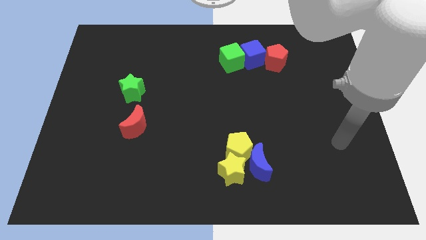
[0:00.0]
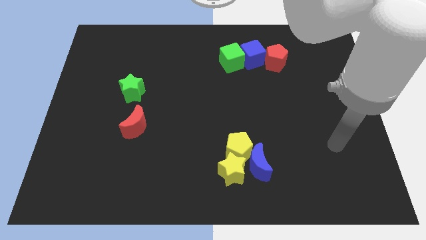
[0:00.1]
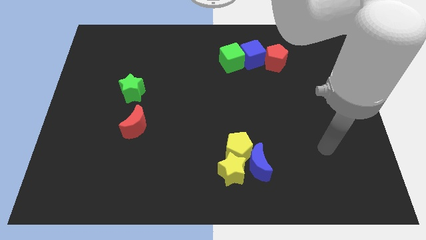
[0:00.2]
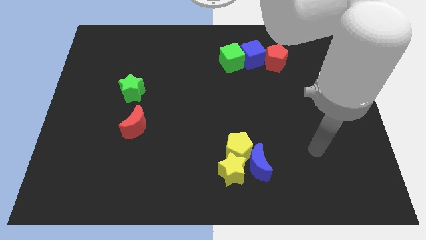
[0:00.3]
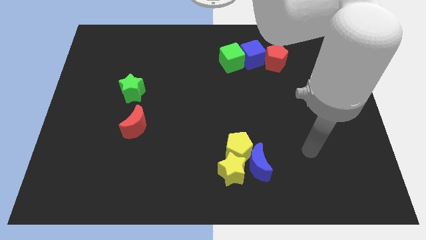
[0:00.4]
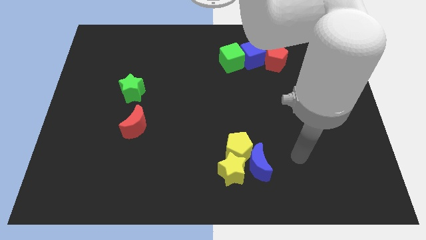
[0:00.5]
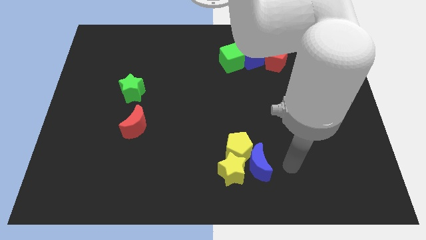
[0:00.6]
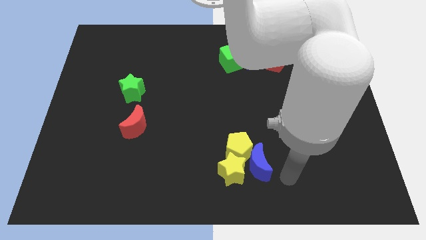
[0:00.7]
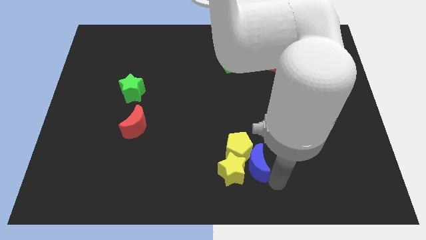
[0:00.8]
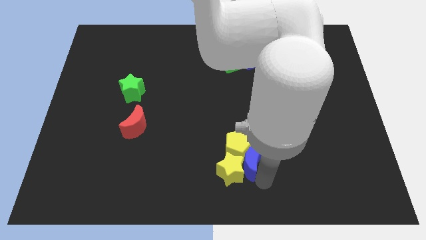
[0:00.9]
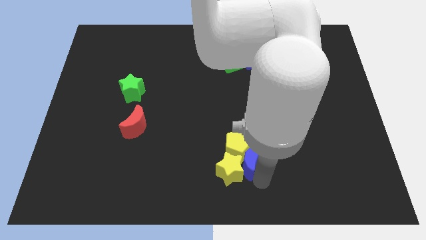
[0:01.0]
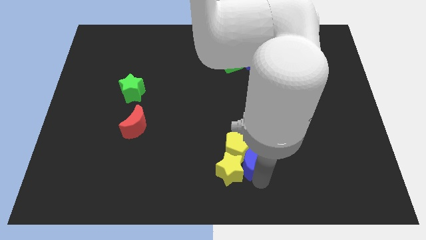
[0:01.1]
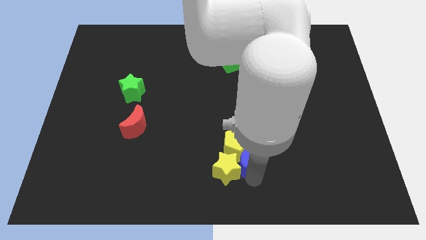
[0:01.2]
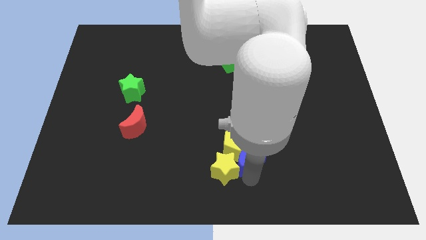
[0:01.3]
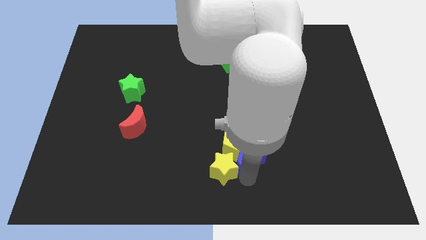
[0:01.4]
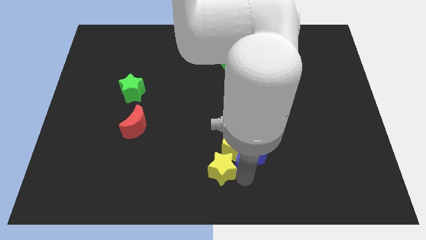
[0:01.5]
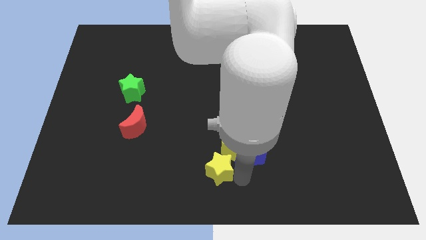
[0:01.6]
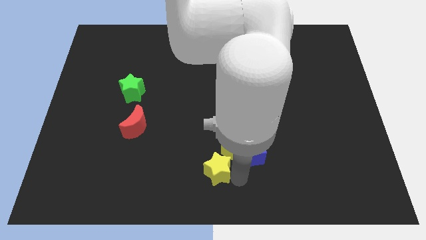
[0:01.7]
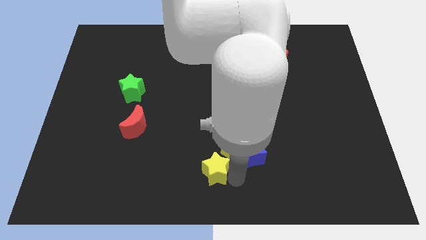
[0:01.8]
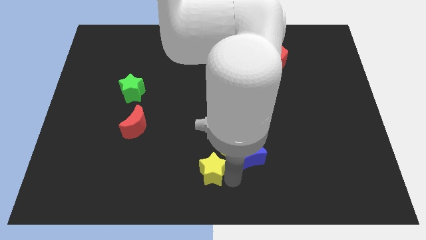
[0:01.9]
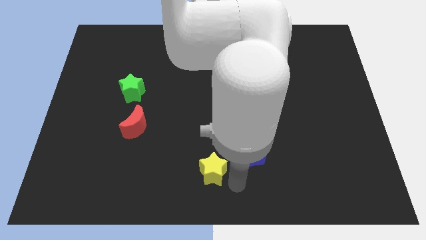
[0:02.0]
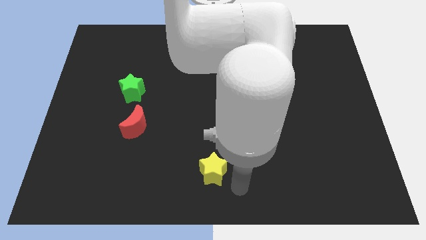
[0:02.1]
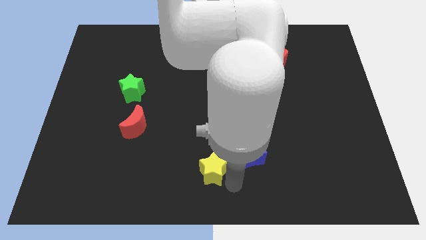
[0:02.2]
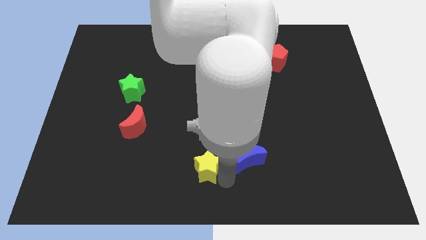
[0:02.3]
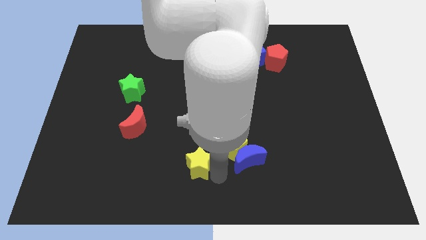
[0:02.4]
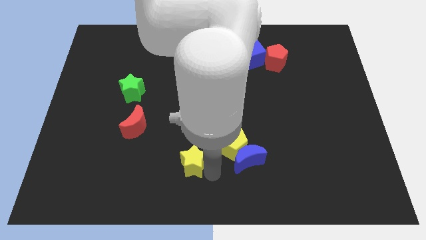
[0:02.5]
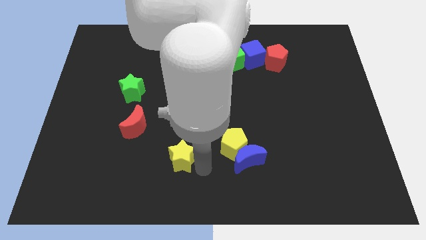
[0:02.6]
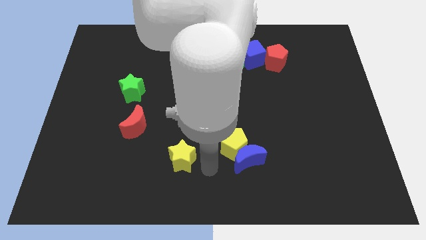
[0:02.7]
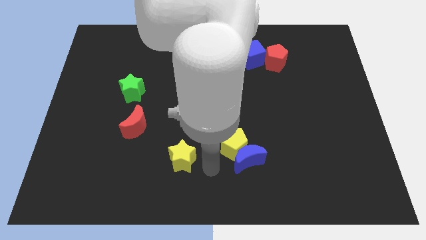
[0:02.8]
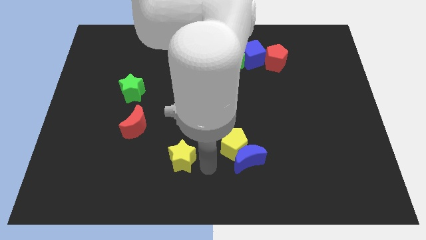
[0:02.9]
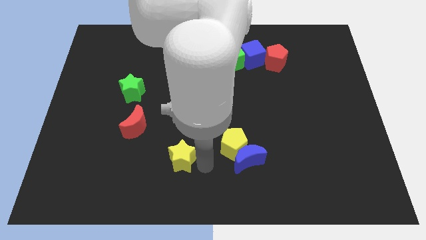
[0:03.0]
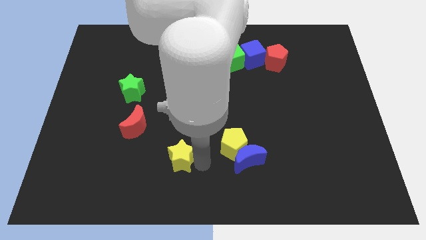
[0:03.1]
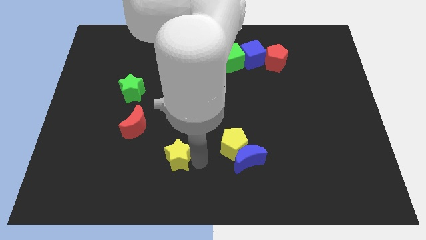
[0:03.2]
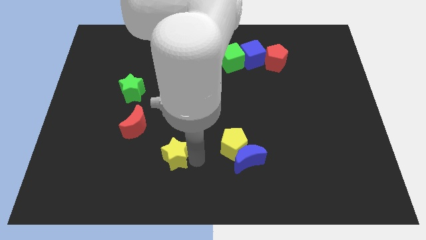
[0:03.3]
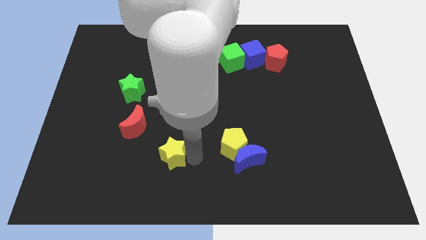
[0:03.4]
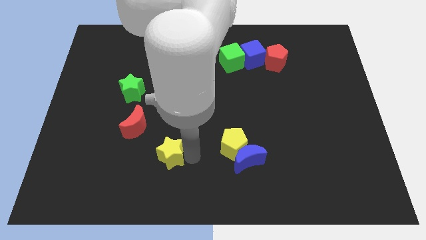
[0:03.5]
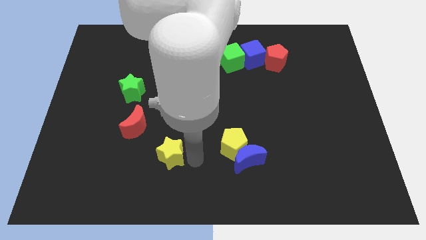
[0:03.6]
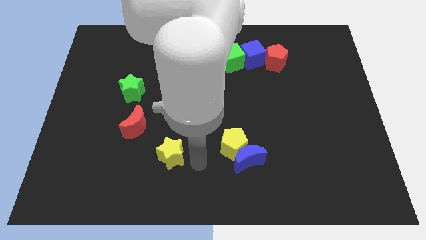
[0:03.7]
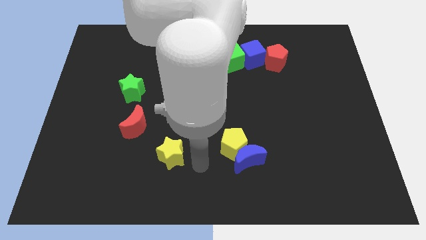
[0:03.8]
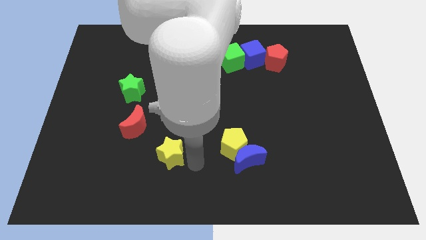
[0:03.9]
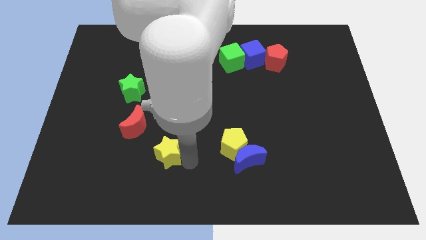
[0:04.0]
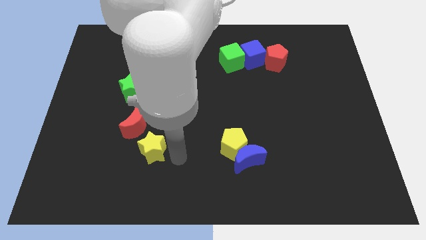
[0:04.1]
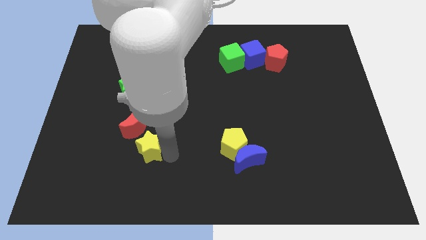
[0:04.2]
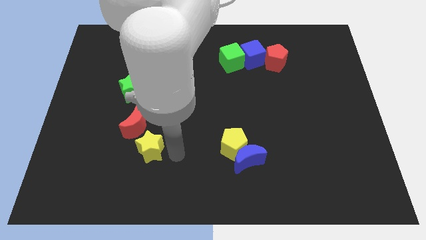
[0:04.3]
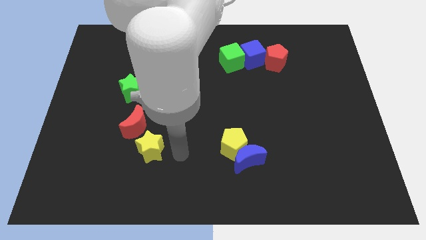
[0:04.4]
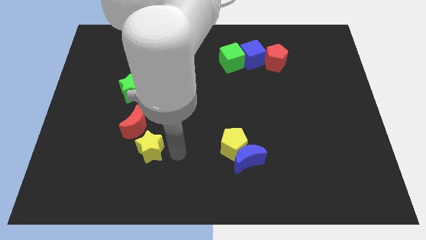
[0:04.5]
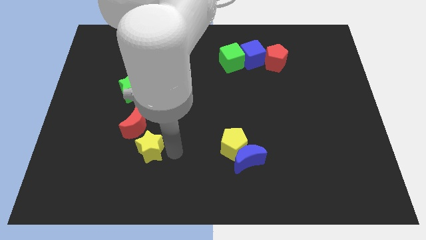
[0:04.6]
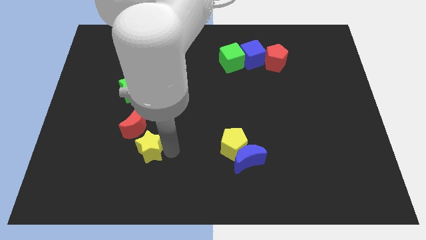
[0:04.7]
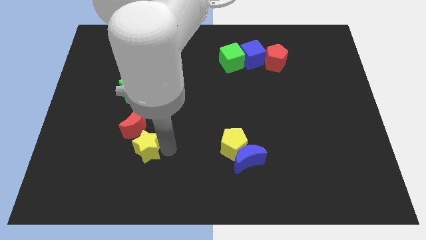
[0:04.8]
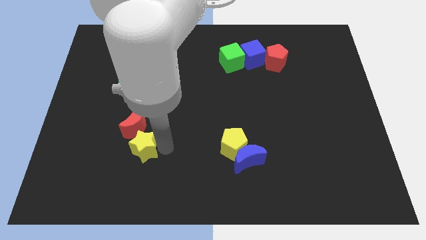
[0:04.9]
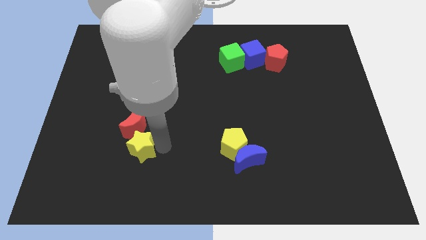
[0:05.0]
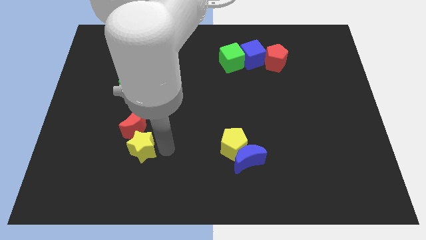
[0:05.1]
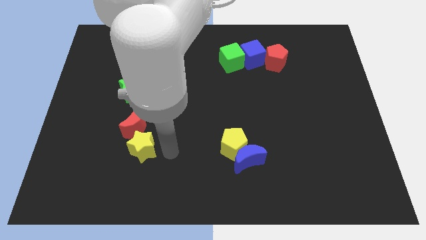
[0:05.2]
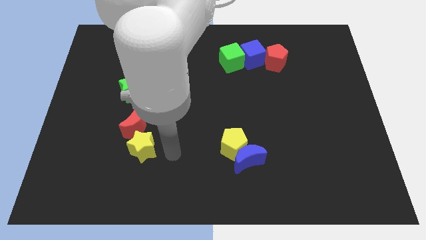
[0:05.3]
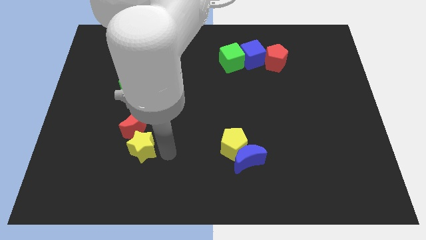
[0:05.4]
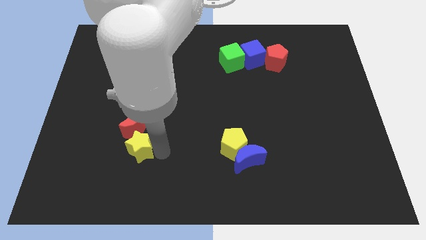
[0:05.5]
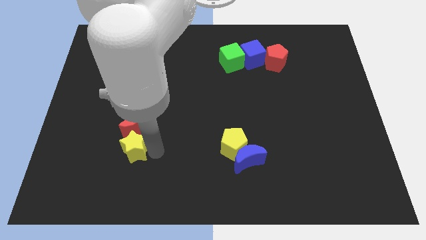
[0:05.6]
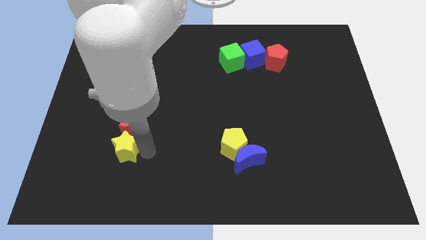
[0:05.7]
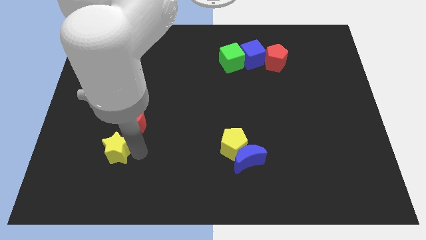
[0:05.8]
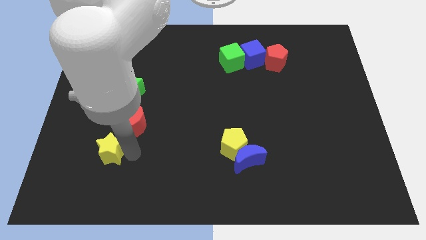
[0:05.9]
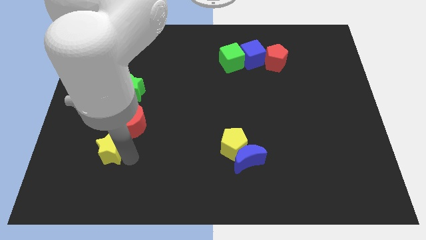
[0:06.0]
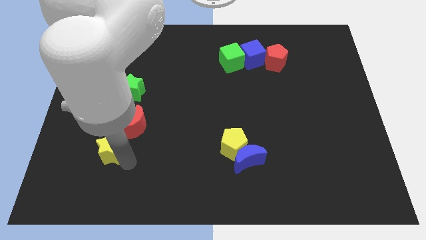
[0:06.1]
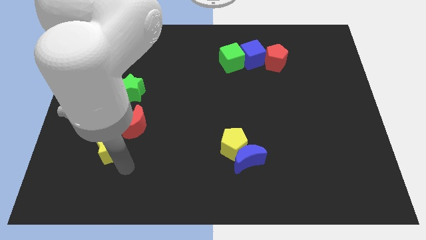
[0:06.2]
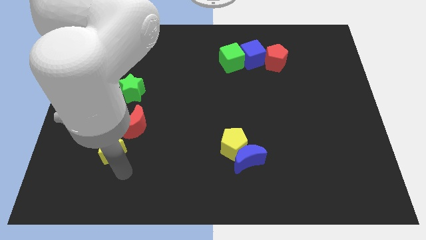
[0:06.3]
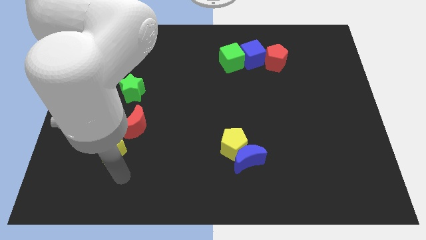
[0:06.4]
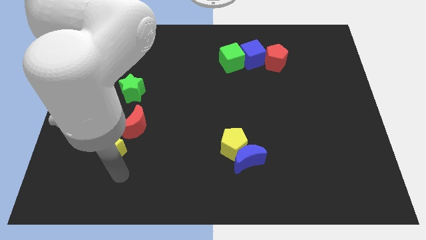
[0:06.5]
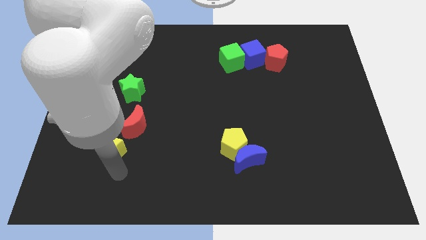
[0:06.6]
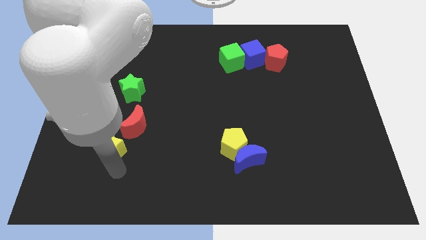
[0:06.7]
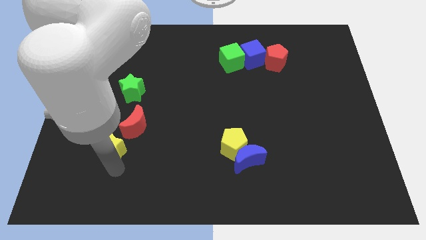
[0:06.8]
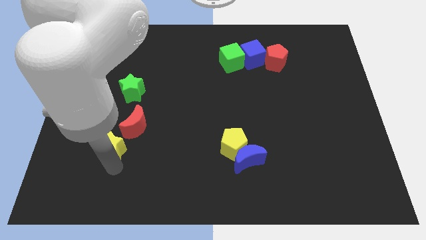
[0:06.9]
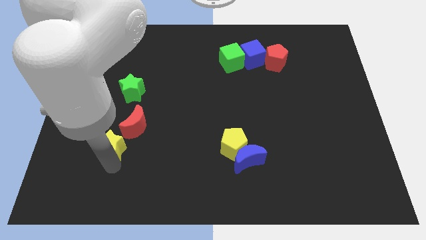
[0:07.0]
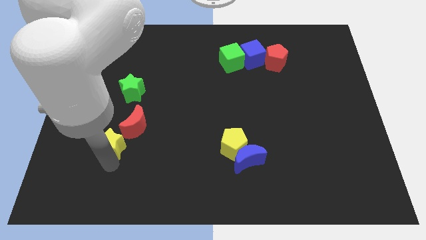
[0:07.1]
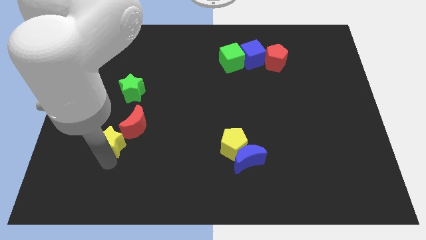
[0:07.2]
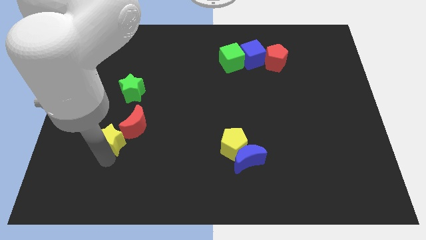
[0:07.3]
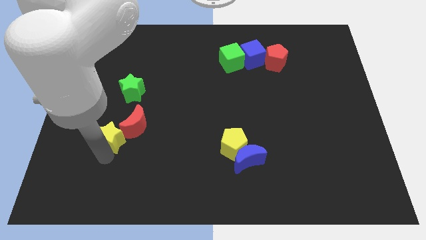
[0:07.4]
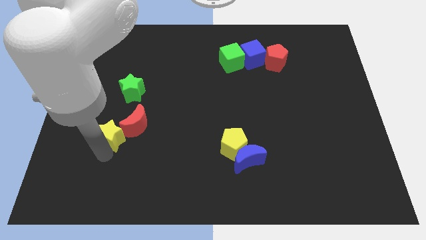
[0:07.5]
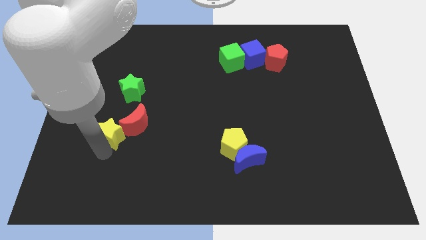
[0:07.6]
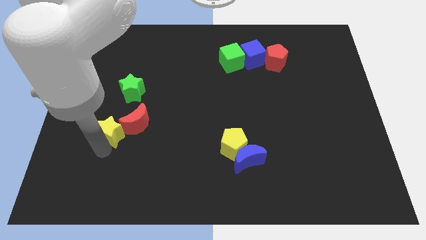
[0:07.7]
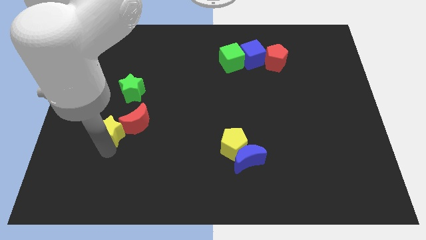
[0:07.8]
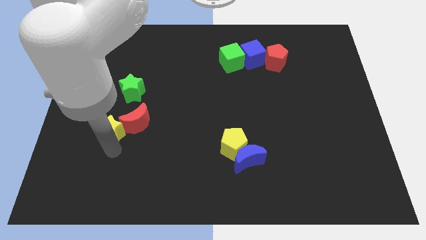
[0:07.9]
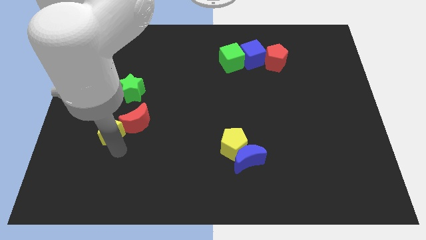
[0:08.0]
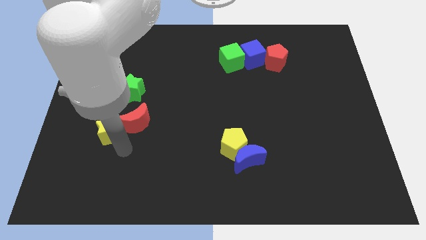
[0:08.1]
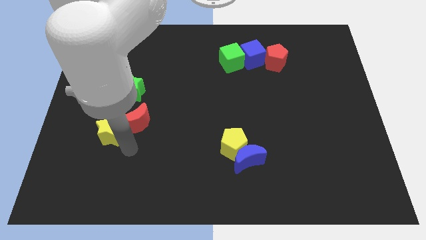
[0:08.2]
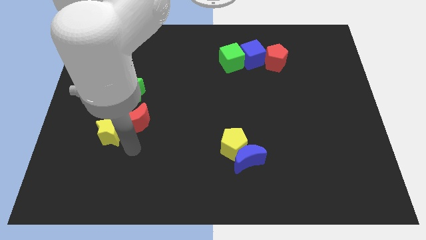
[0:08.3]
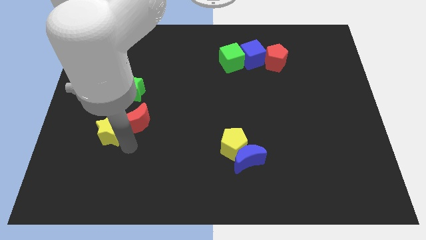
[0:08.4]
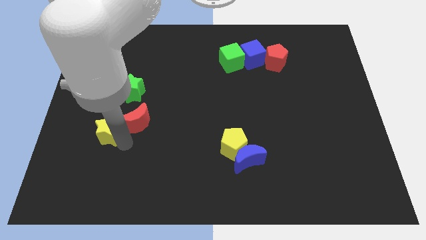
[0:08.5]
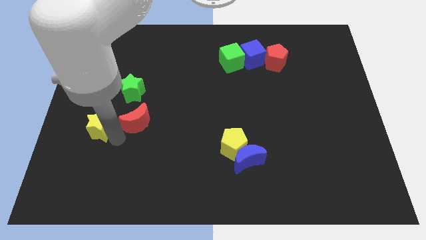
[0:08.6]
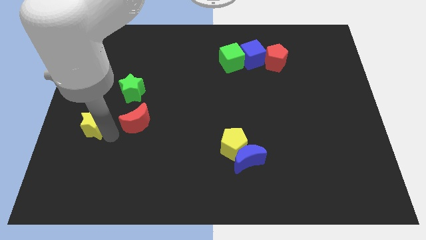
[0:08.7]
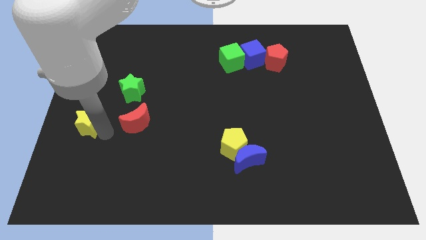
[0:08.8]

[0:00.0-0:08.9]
slide the yellow star to the left side of the board
